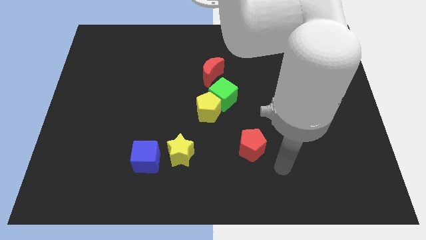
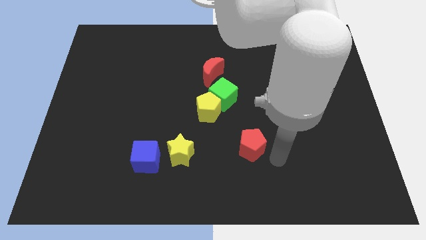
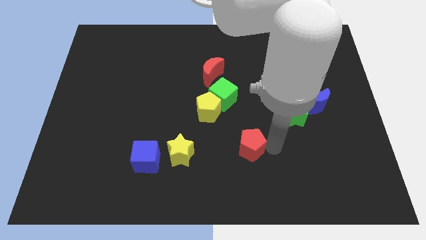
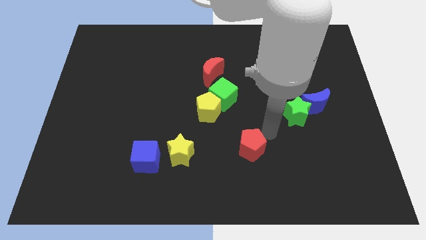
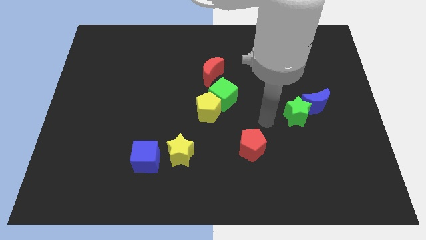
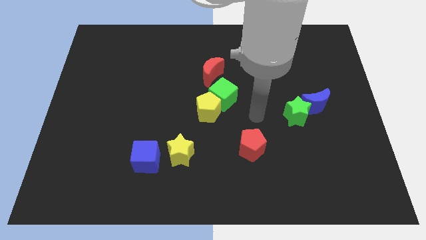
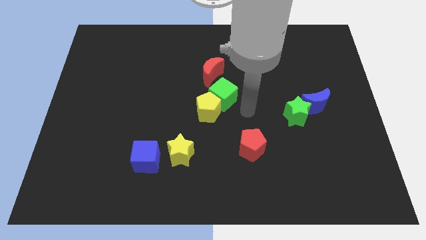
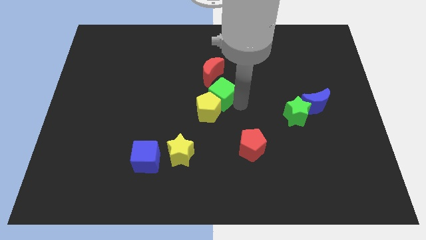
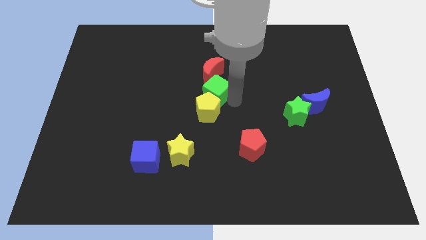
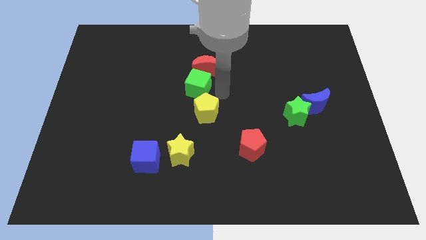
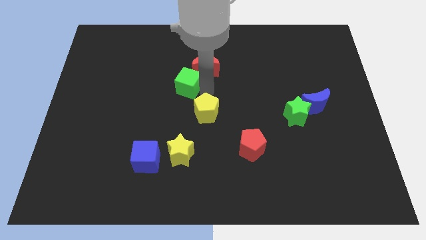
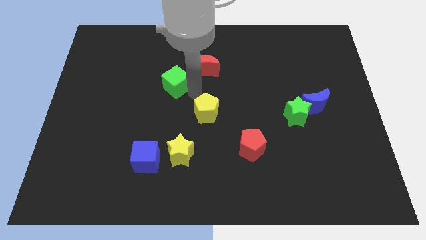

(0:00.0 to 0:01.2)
pull the yellow pentagon apart from the green cube

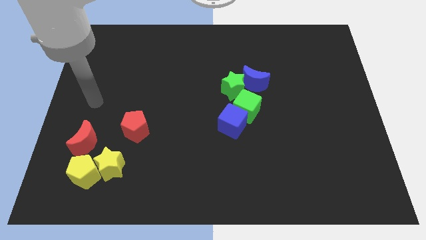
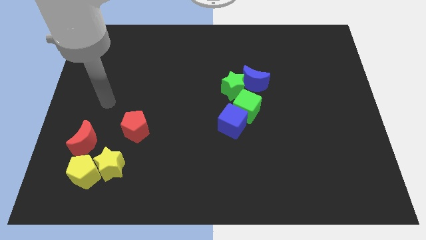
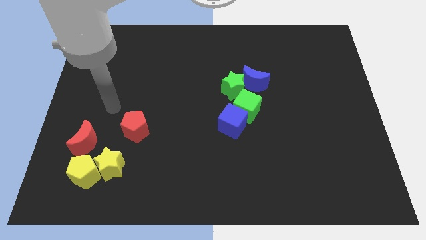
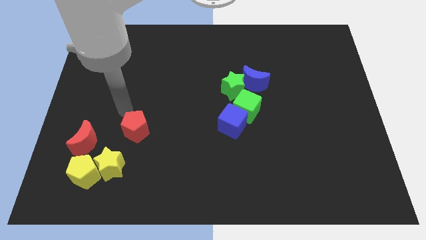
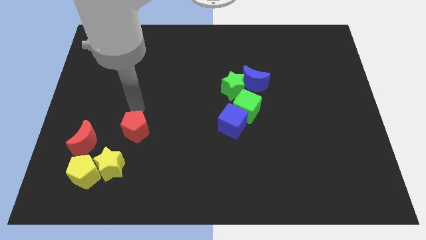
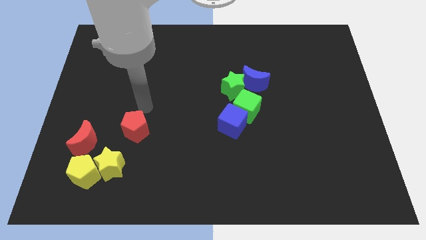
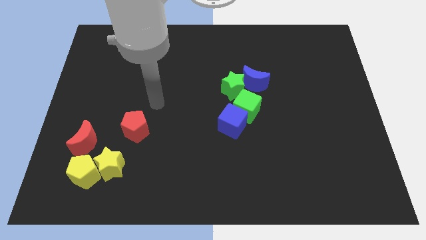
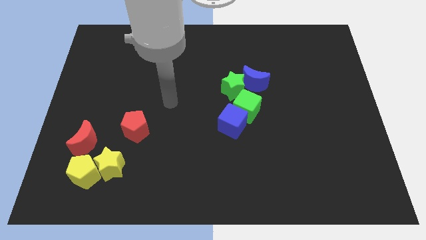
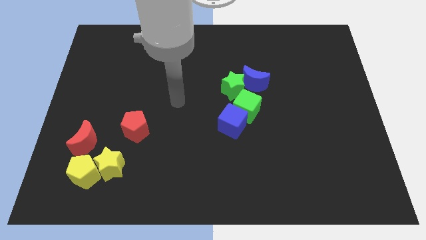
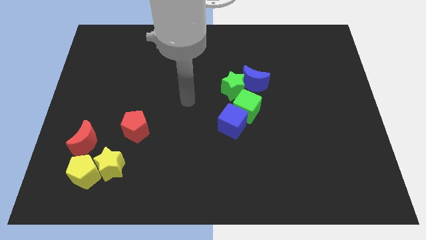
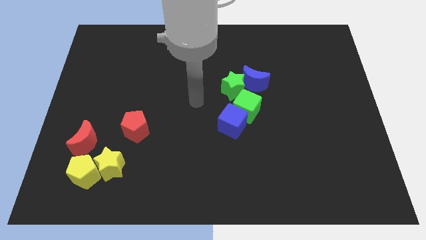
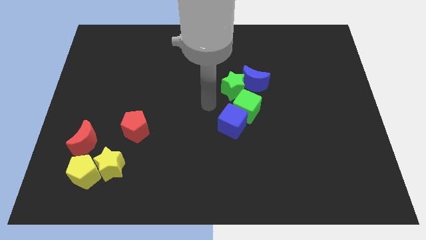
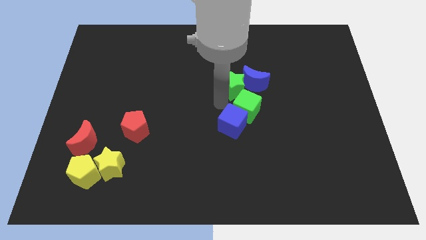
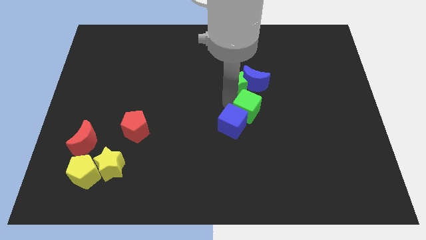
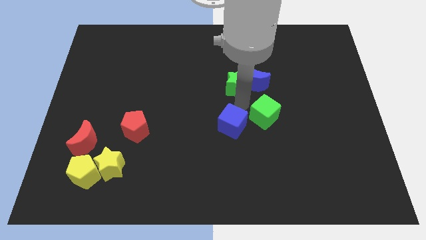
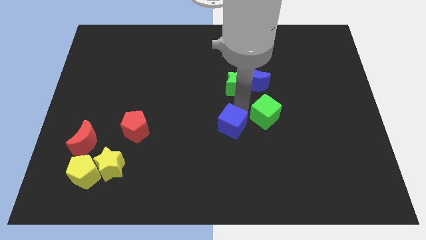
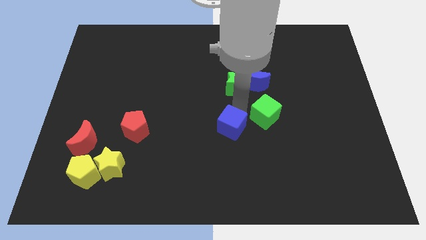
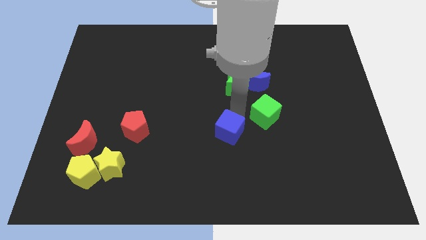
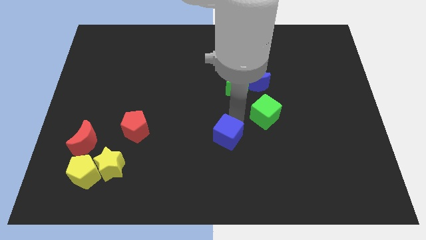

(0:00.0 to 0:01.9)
move the blue cube away from the green cube

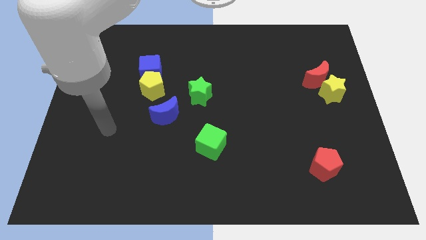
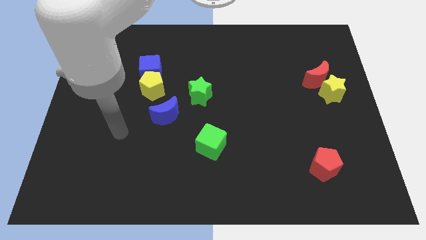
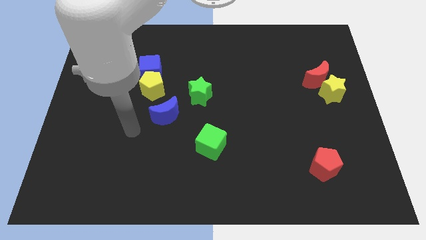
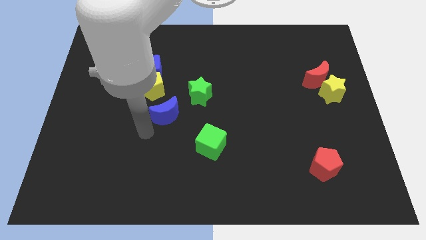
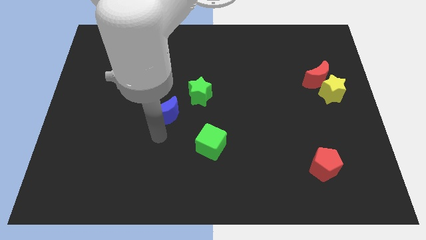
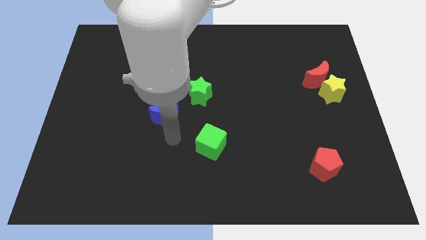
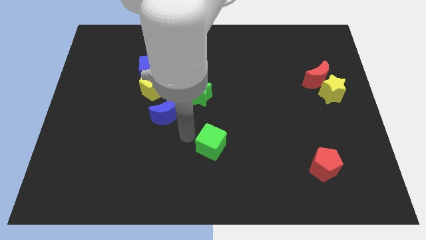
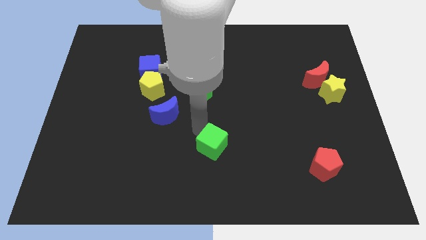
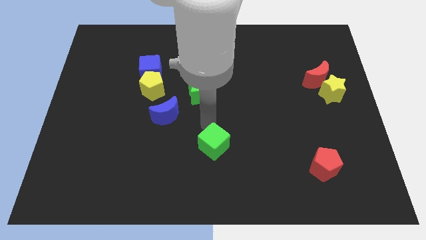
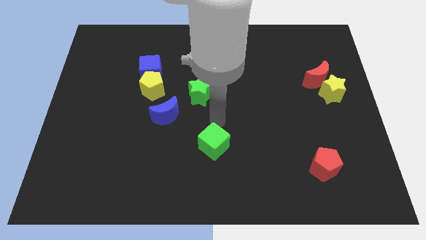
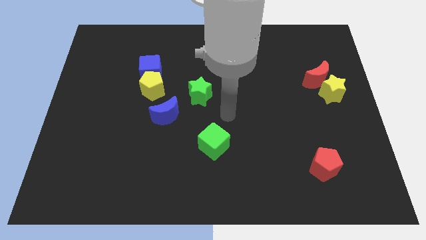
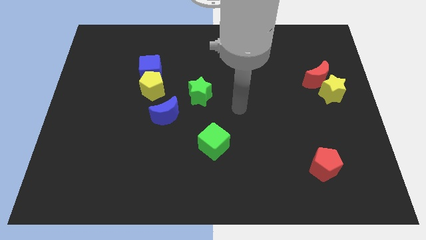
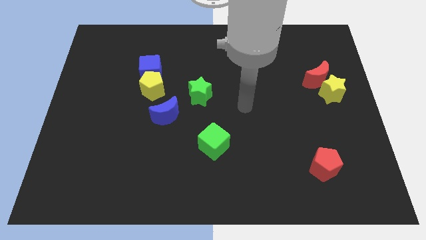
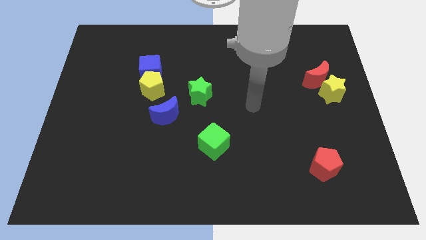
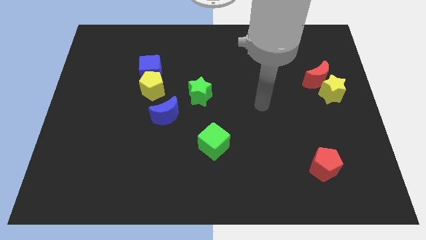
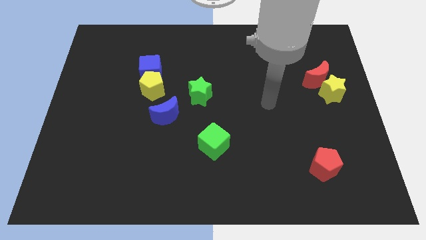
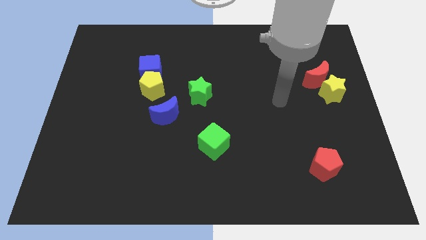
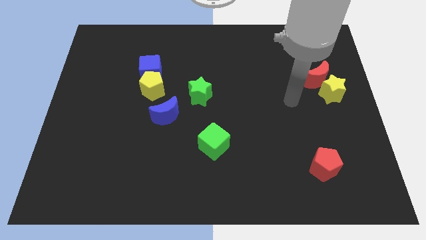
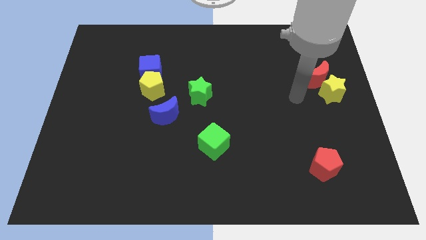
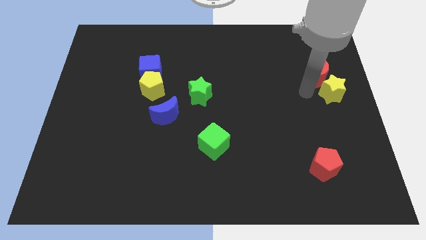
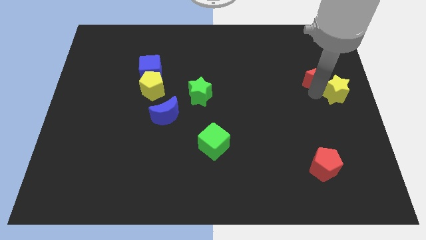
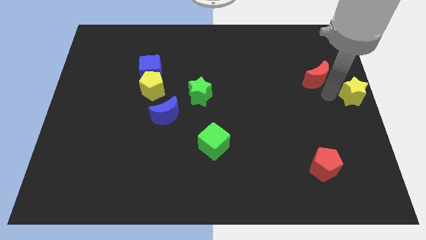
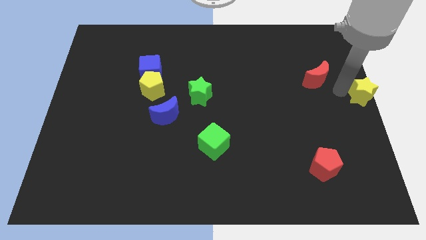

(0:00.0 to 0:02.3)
pull the red moon apart from the yellow star

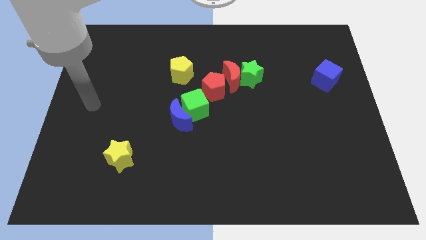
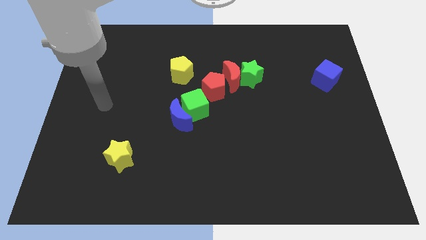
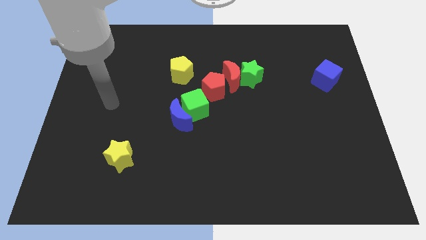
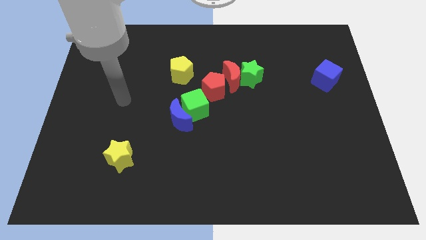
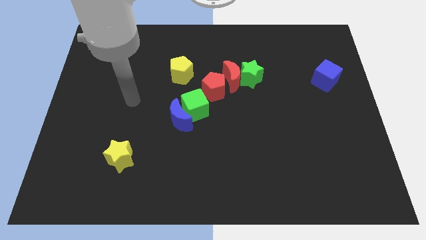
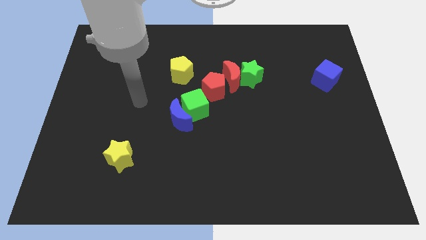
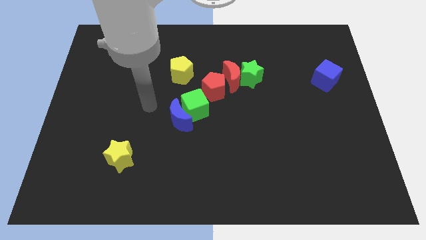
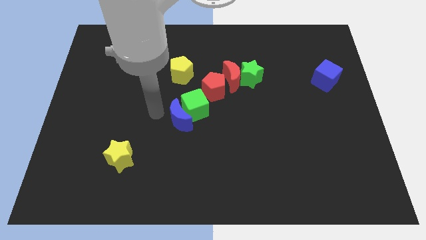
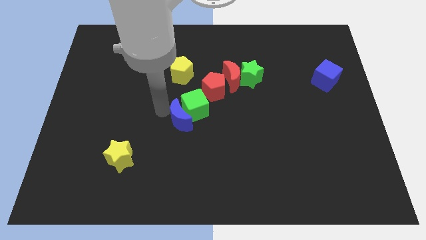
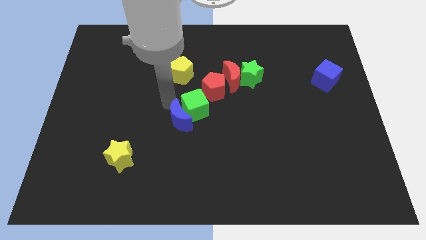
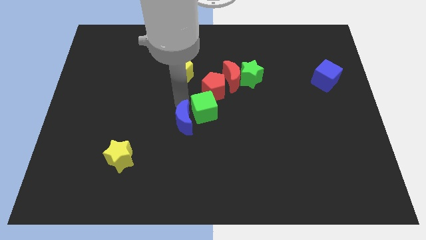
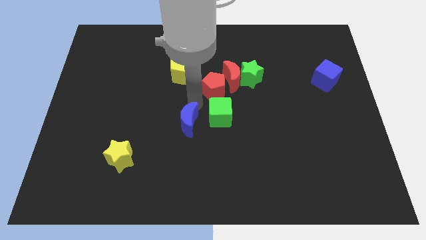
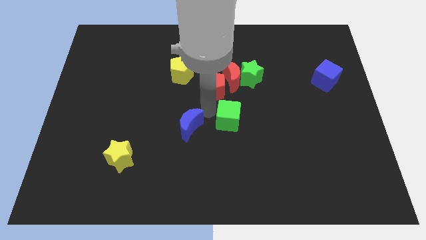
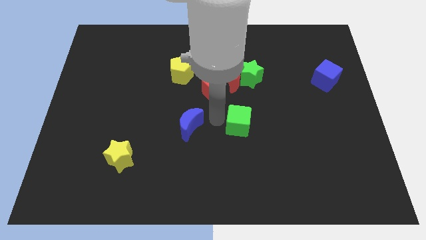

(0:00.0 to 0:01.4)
pull the blue moon apart from the green cube

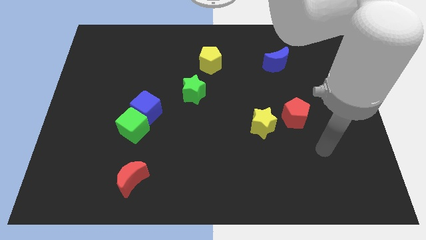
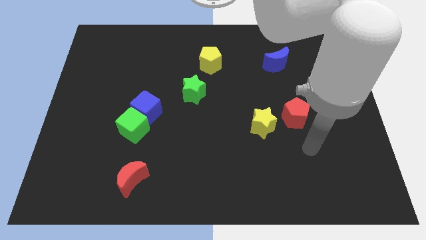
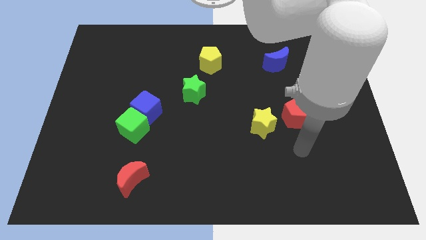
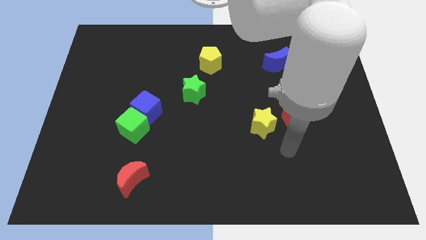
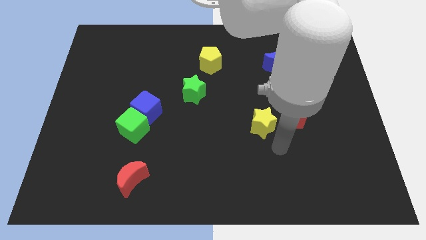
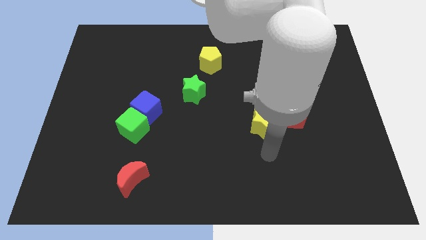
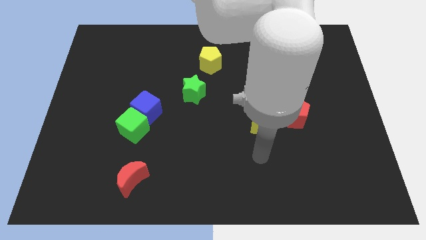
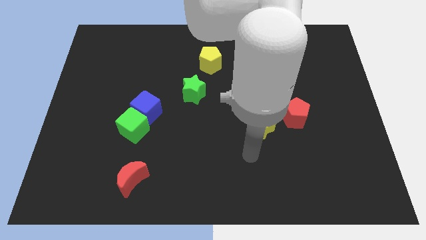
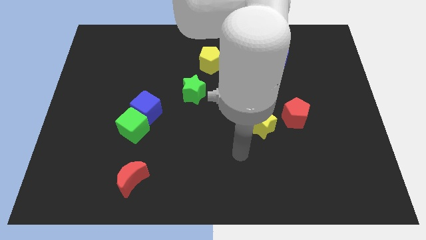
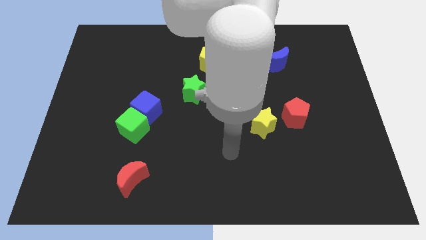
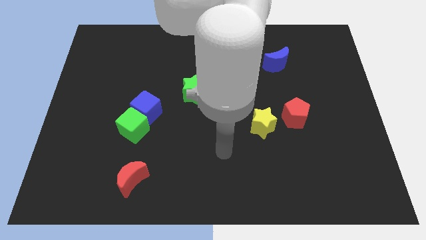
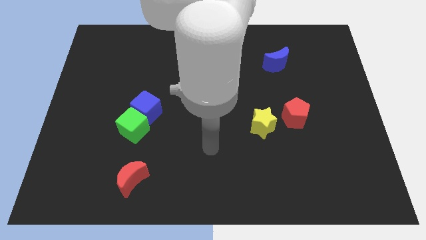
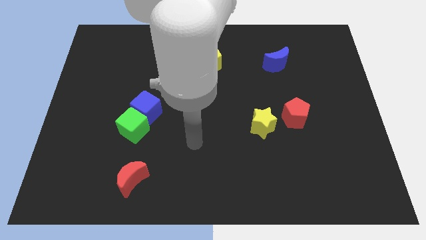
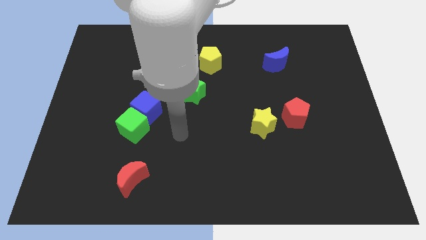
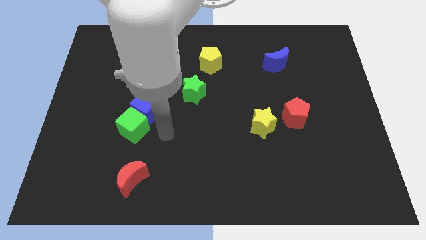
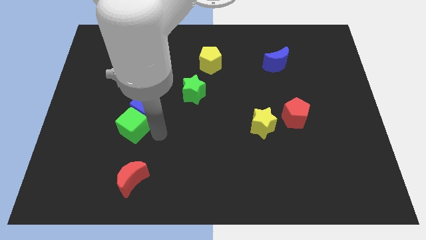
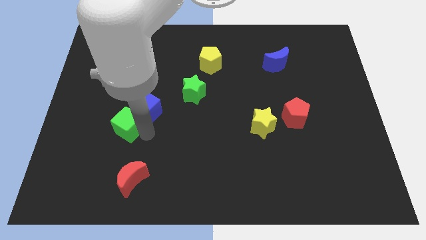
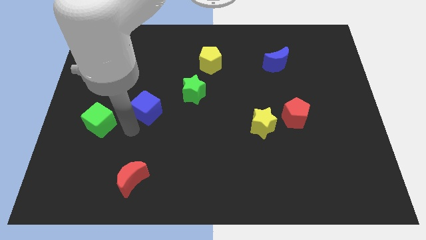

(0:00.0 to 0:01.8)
pull the blue cube apart from the green cube

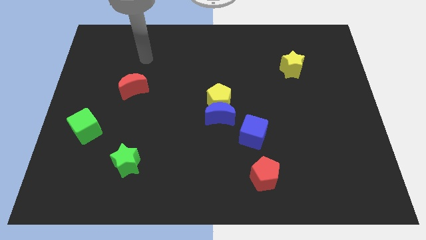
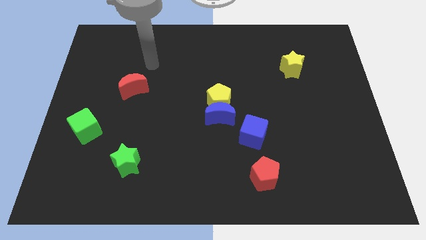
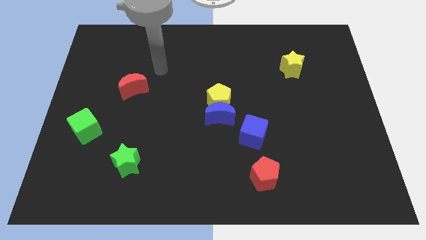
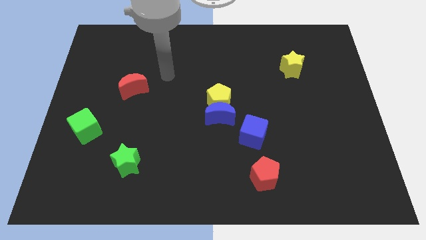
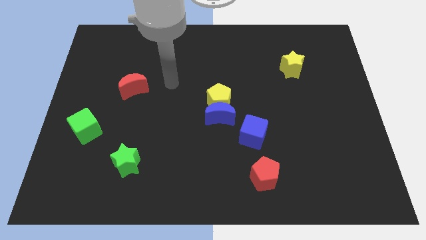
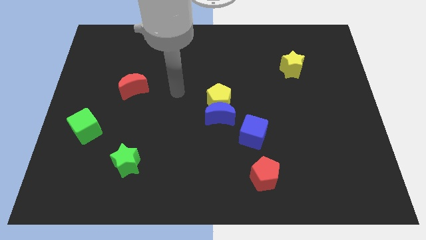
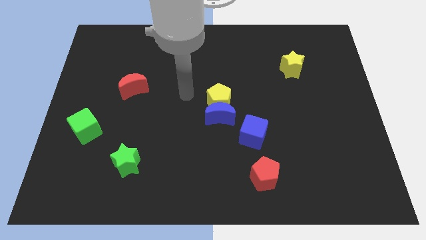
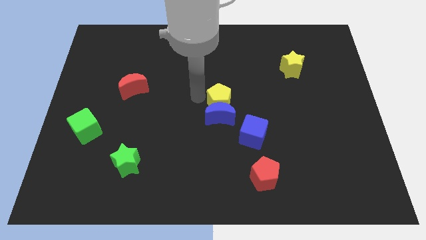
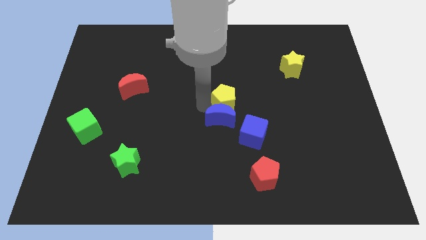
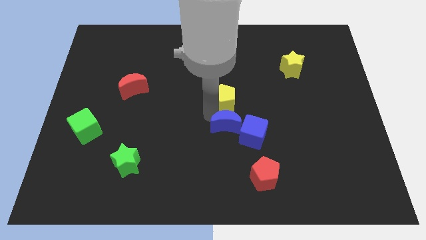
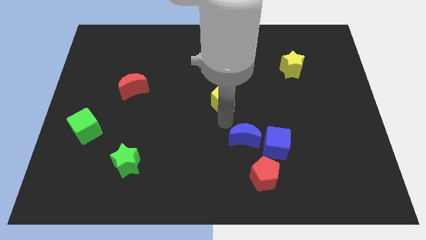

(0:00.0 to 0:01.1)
pull the yellow pentagon apart from the blue moon
